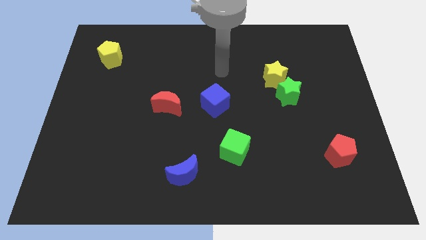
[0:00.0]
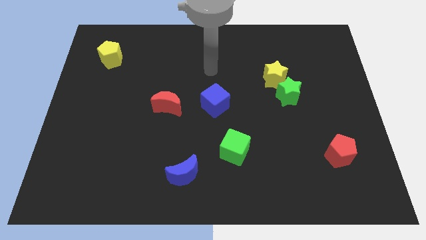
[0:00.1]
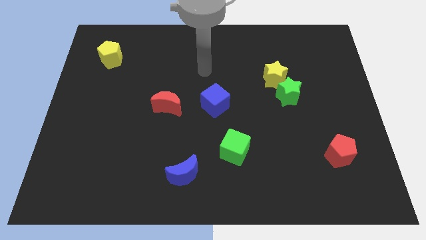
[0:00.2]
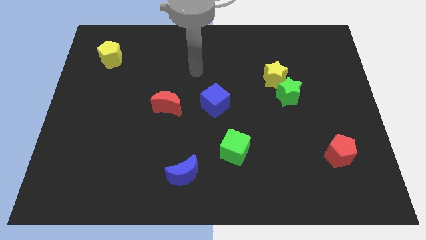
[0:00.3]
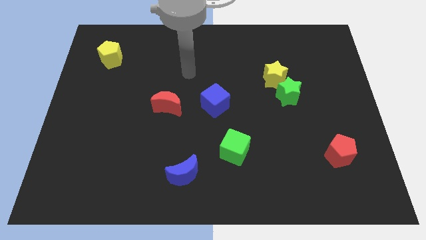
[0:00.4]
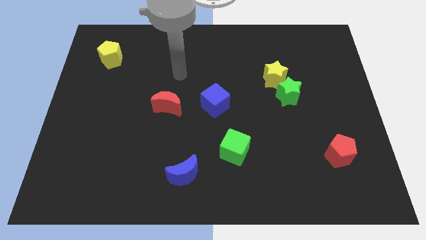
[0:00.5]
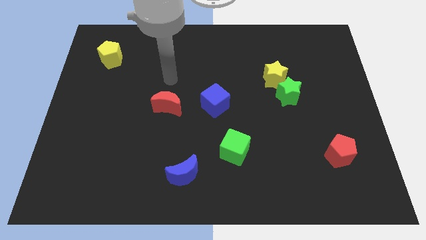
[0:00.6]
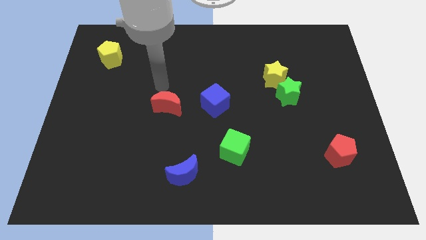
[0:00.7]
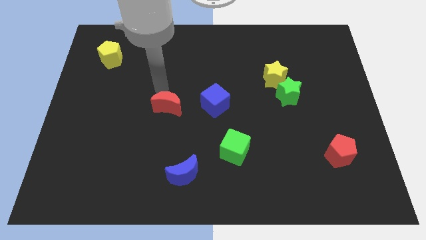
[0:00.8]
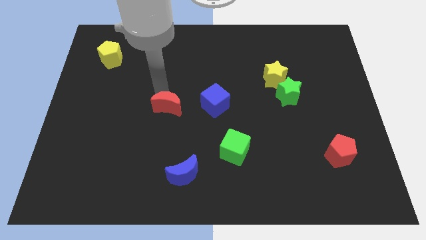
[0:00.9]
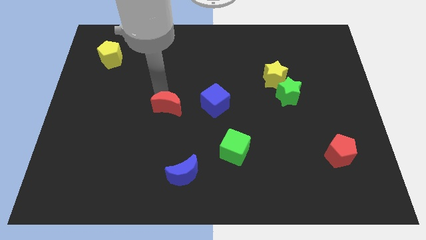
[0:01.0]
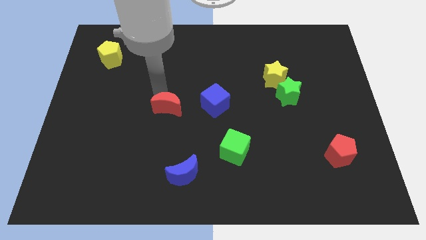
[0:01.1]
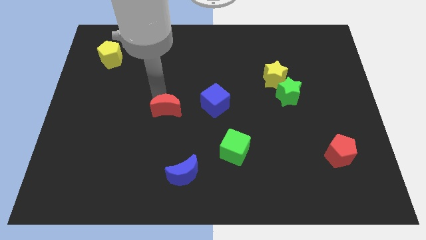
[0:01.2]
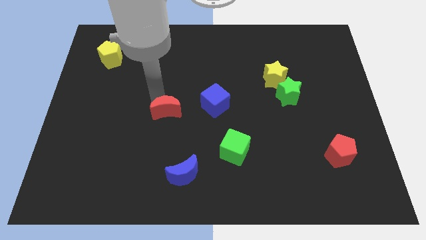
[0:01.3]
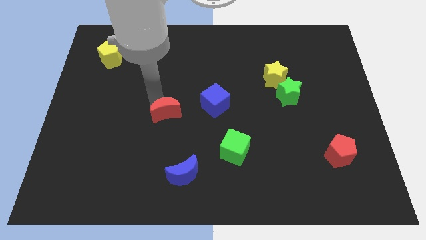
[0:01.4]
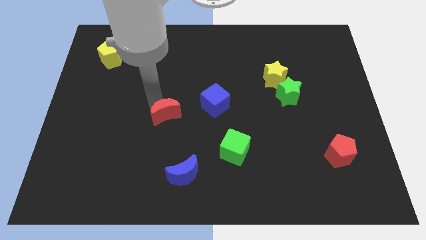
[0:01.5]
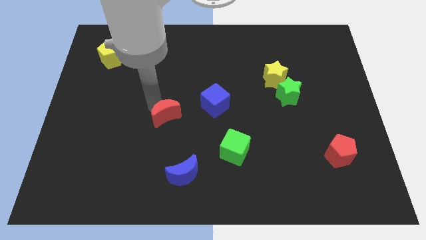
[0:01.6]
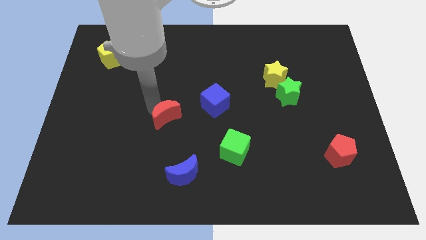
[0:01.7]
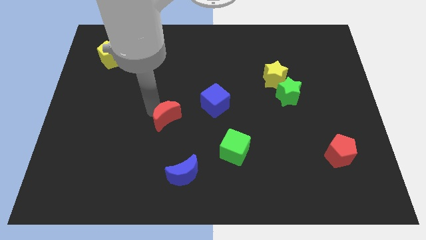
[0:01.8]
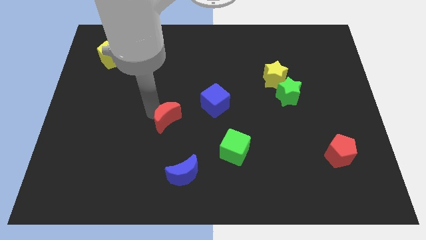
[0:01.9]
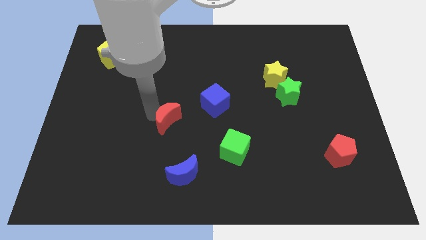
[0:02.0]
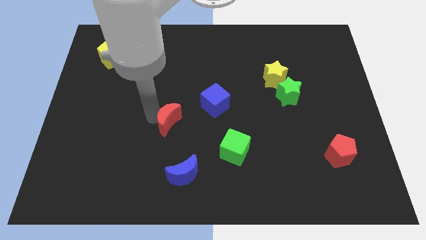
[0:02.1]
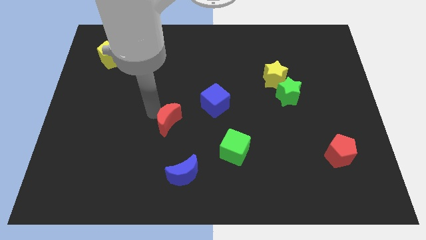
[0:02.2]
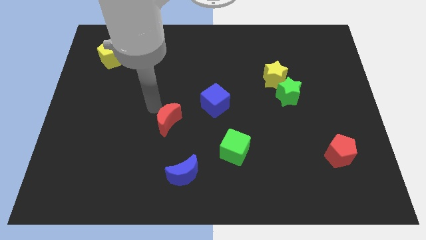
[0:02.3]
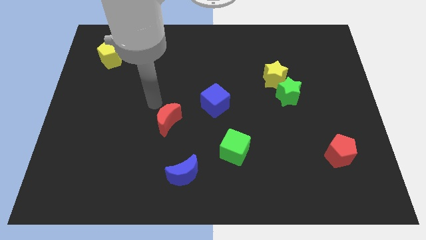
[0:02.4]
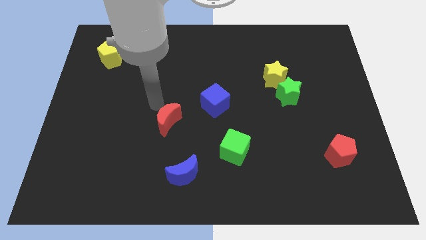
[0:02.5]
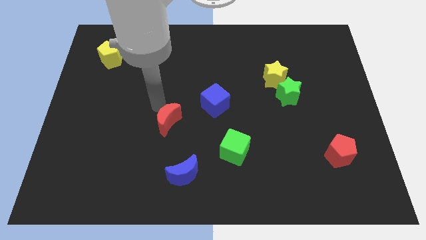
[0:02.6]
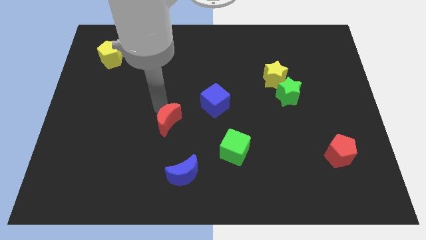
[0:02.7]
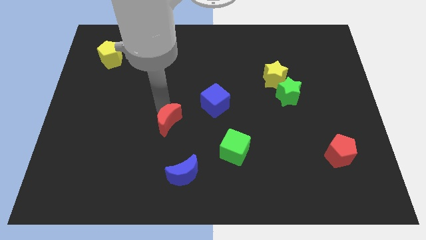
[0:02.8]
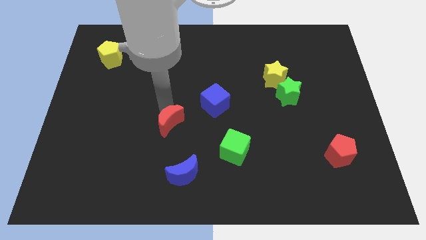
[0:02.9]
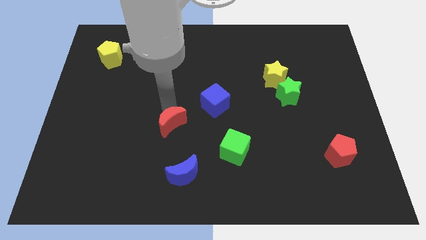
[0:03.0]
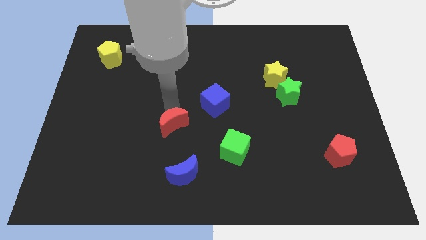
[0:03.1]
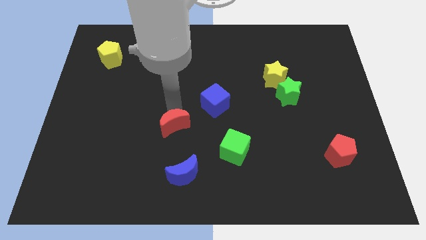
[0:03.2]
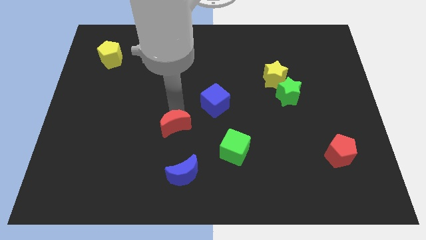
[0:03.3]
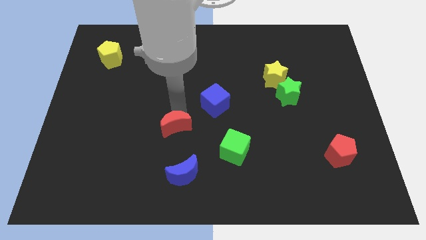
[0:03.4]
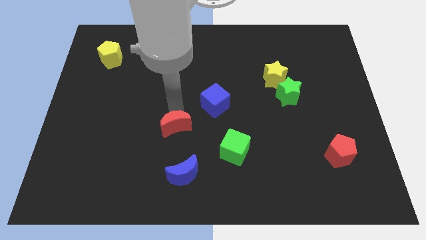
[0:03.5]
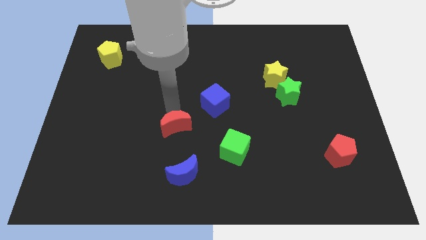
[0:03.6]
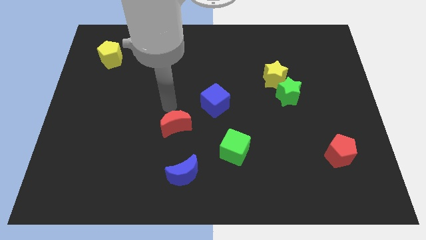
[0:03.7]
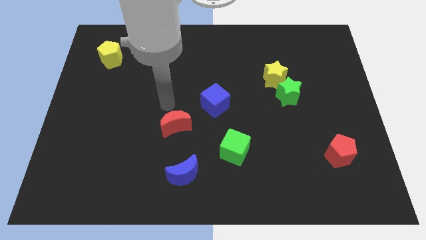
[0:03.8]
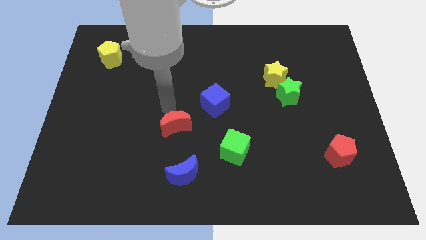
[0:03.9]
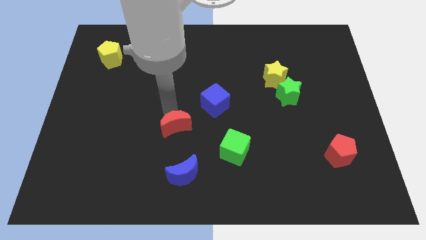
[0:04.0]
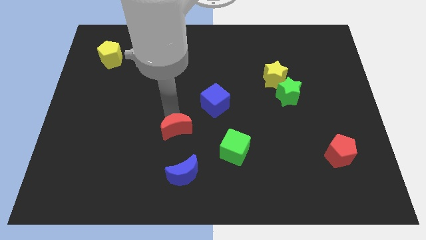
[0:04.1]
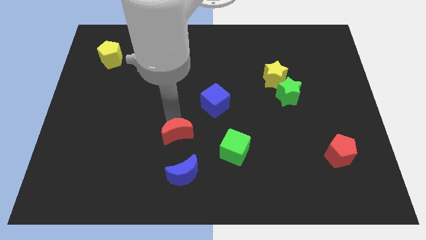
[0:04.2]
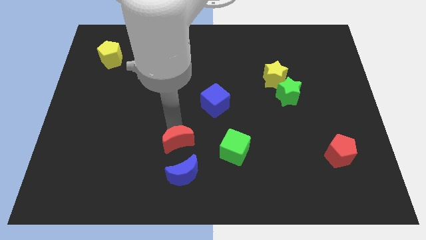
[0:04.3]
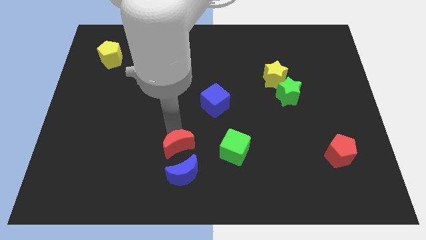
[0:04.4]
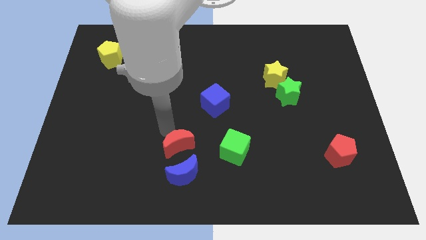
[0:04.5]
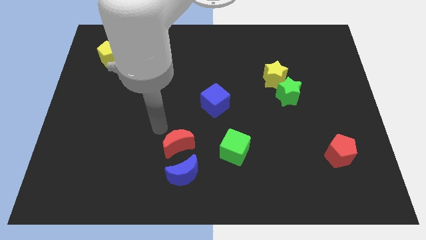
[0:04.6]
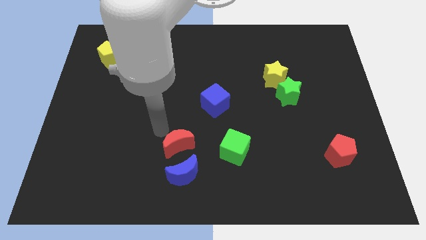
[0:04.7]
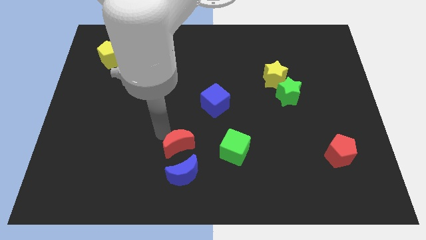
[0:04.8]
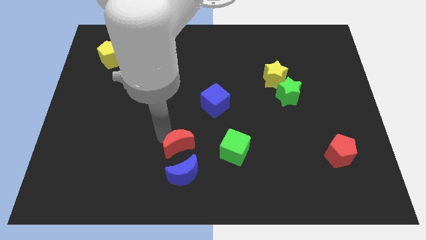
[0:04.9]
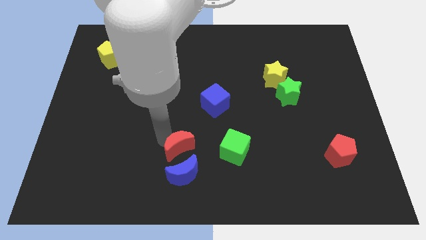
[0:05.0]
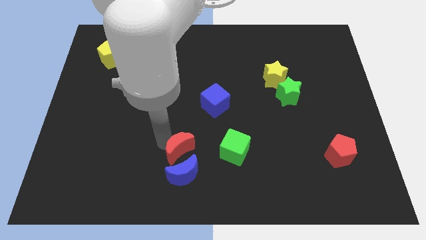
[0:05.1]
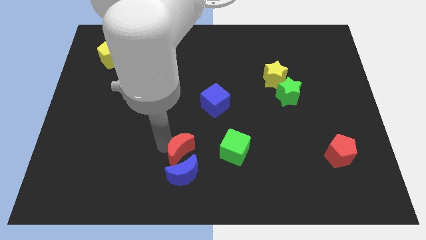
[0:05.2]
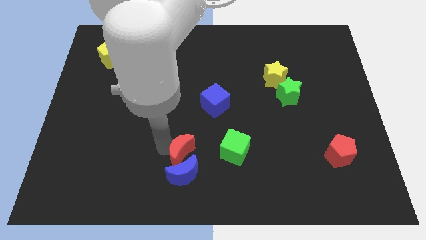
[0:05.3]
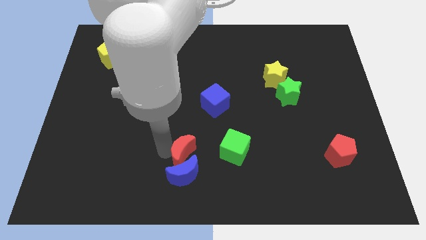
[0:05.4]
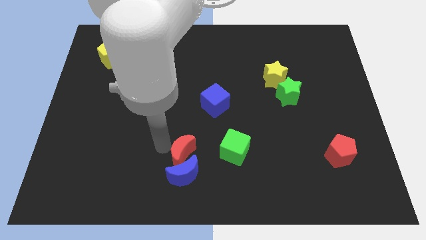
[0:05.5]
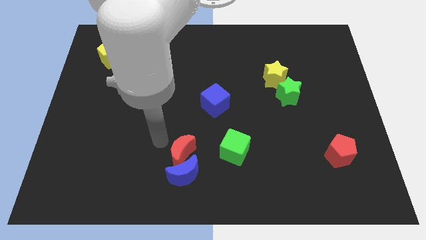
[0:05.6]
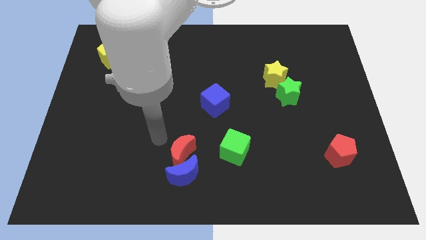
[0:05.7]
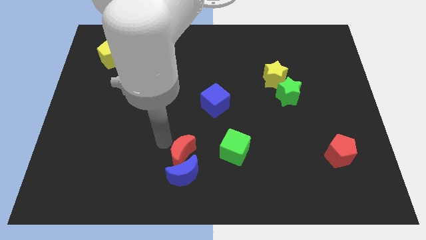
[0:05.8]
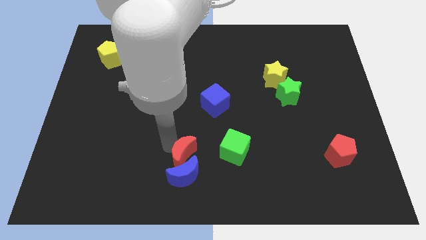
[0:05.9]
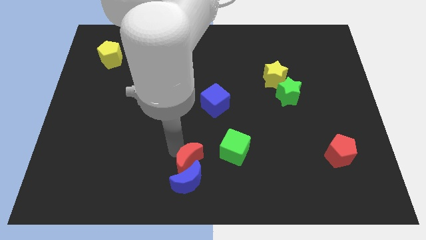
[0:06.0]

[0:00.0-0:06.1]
put the red moon to the bottom side

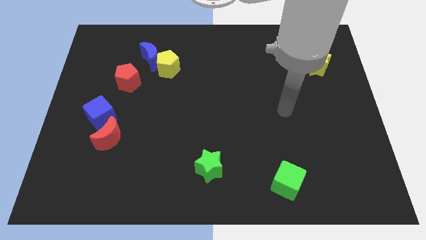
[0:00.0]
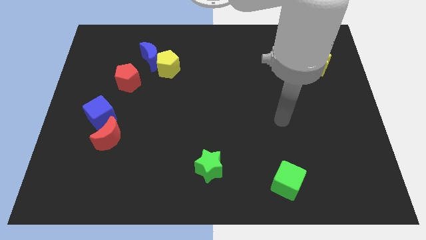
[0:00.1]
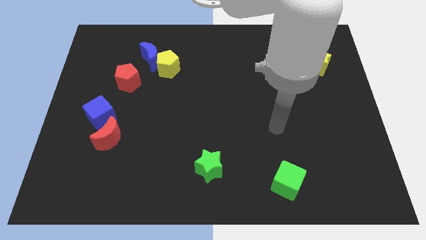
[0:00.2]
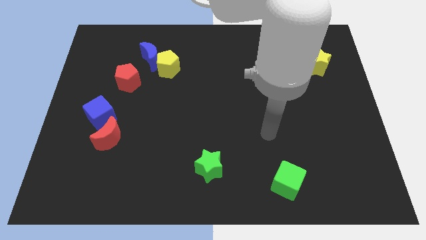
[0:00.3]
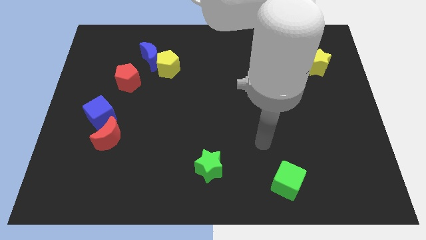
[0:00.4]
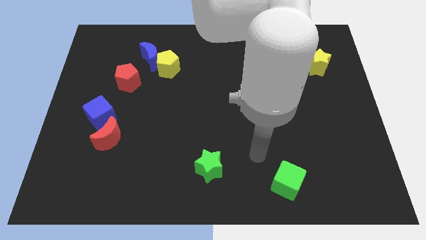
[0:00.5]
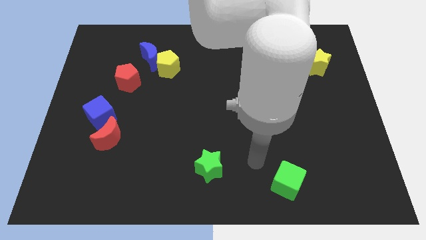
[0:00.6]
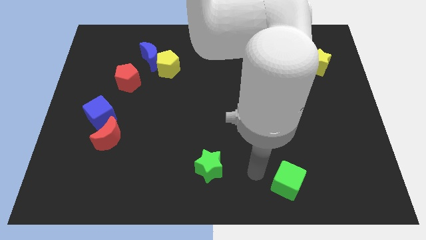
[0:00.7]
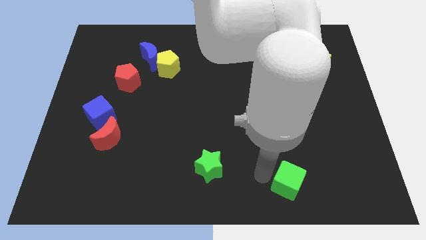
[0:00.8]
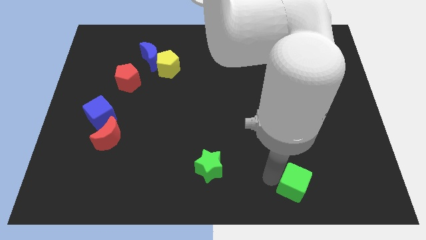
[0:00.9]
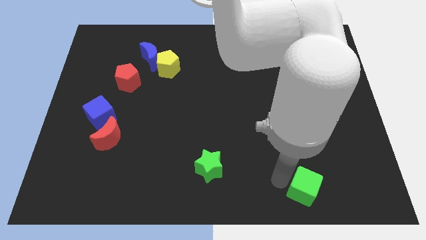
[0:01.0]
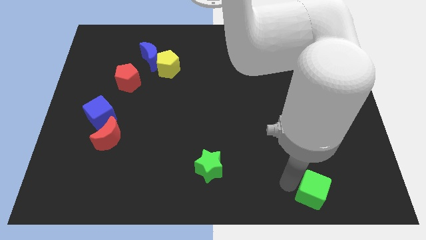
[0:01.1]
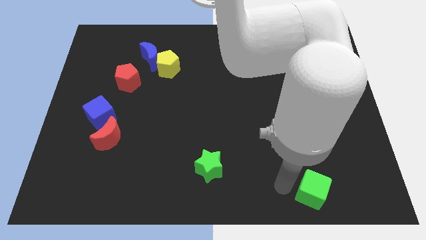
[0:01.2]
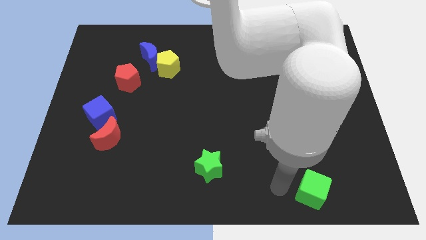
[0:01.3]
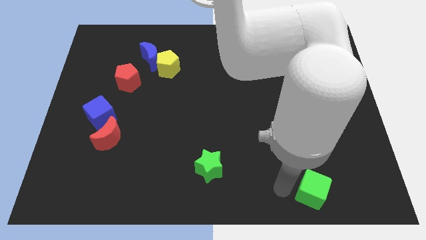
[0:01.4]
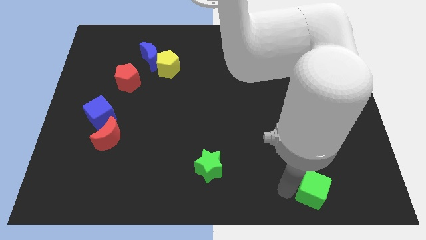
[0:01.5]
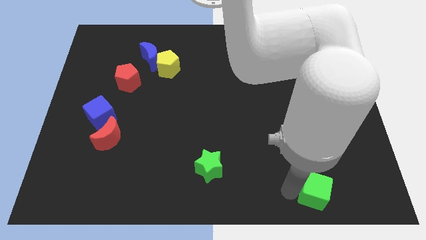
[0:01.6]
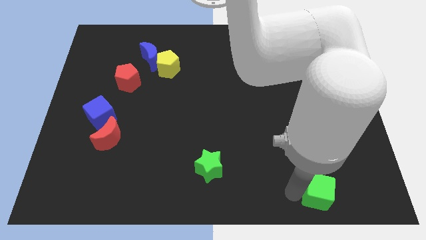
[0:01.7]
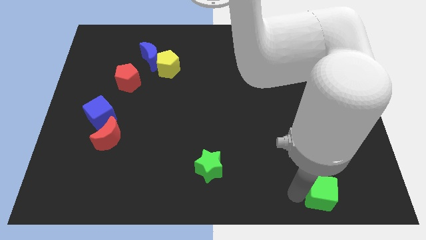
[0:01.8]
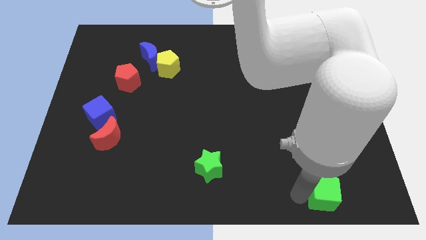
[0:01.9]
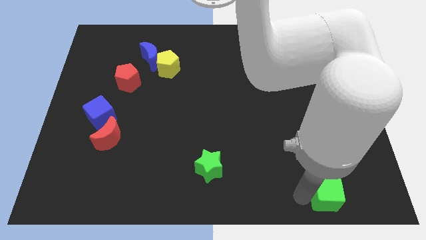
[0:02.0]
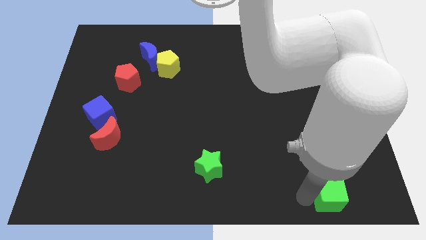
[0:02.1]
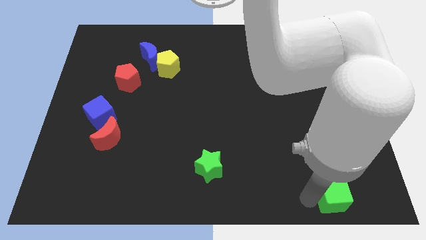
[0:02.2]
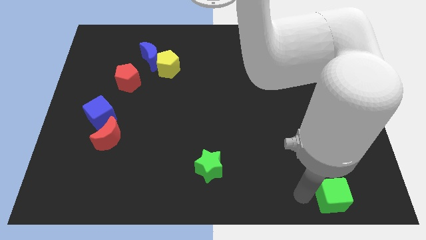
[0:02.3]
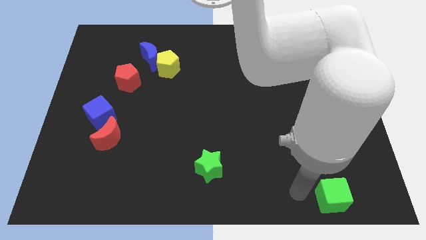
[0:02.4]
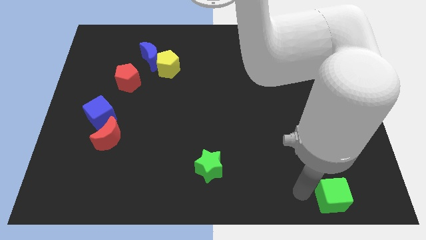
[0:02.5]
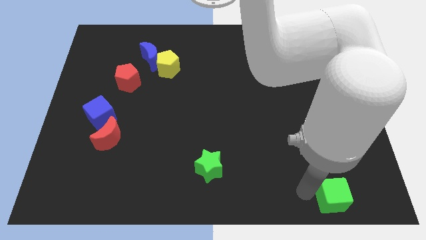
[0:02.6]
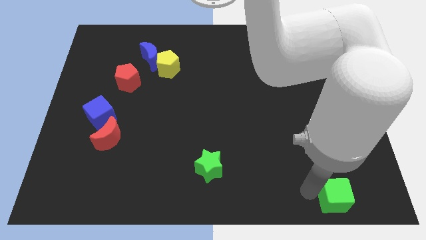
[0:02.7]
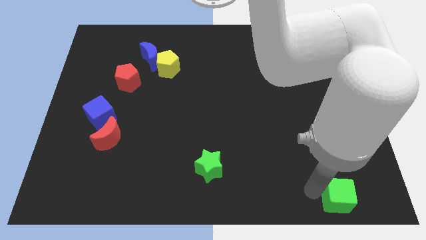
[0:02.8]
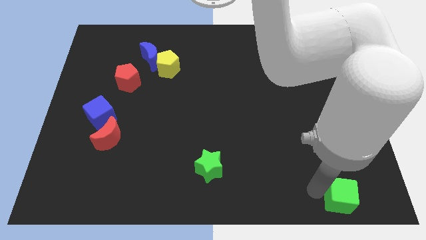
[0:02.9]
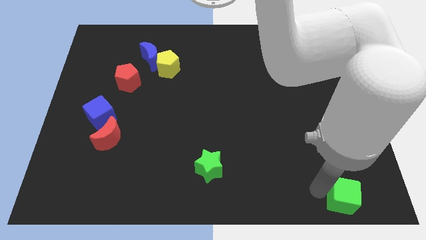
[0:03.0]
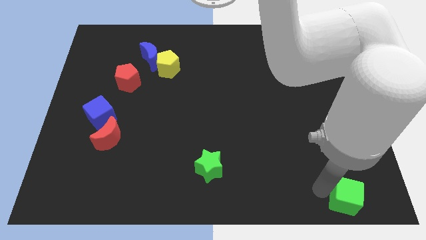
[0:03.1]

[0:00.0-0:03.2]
push the green cube to the bottom right of the board
